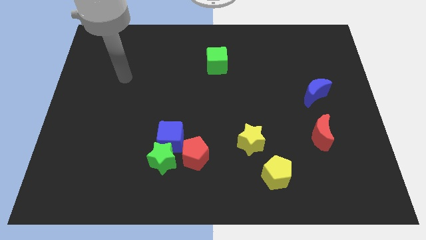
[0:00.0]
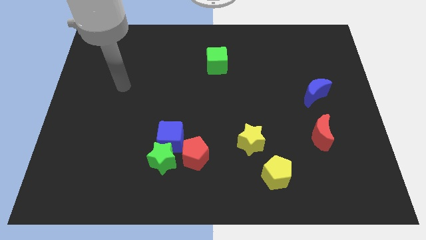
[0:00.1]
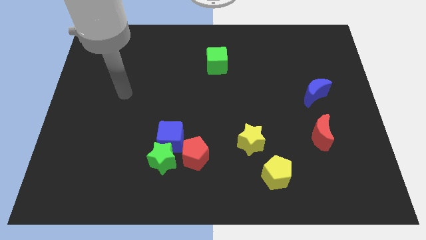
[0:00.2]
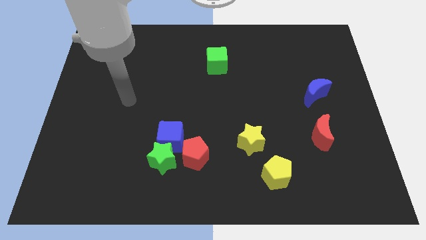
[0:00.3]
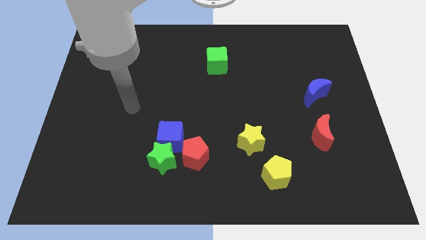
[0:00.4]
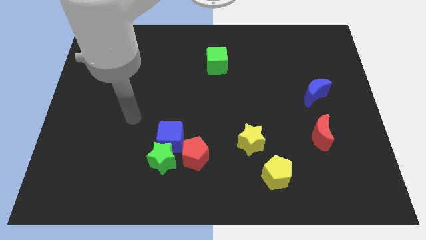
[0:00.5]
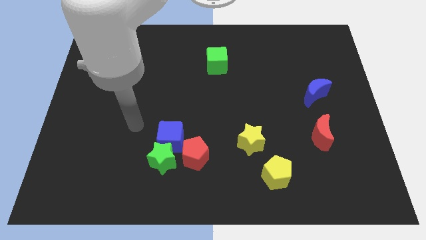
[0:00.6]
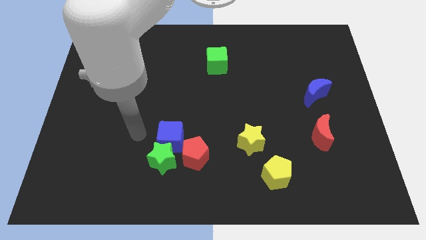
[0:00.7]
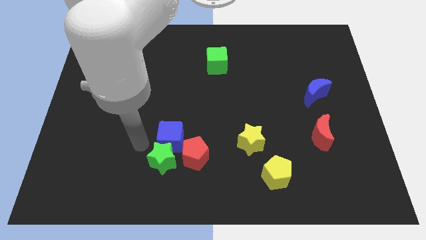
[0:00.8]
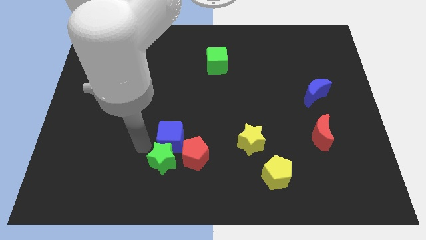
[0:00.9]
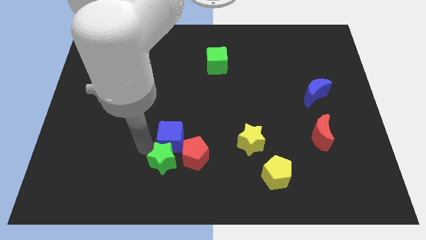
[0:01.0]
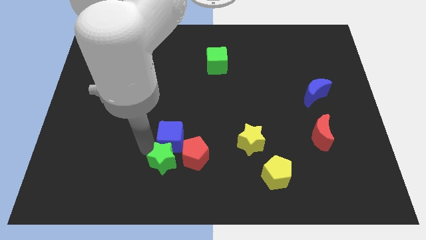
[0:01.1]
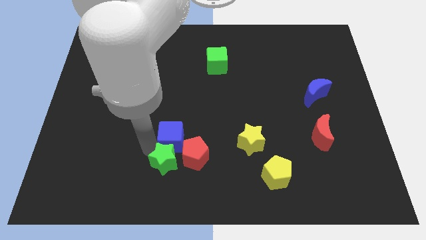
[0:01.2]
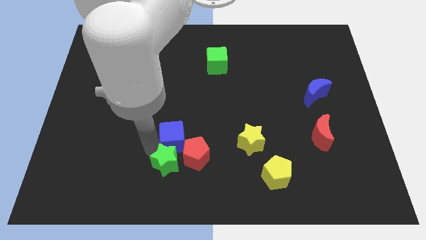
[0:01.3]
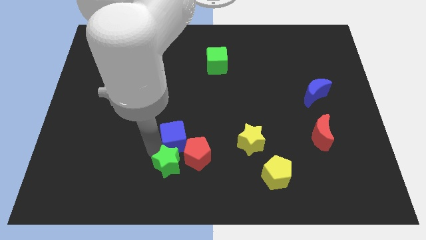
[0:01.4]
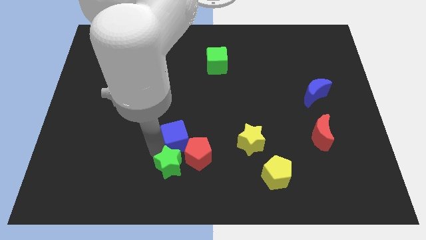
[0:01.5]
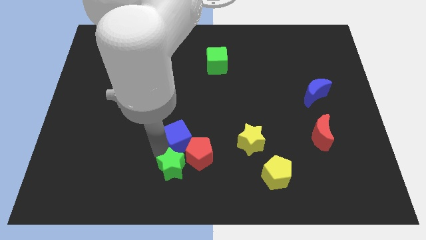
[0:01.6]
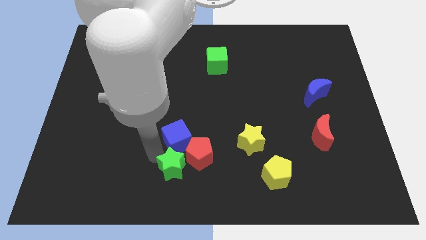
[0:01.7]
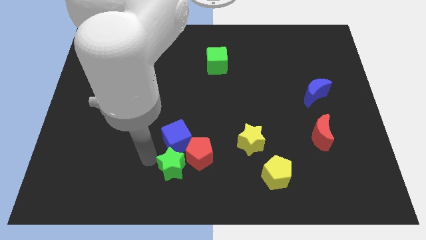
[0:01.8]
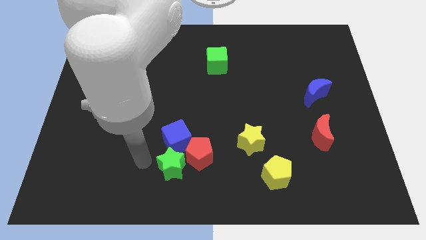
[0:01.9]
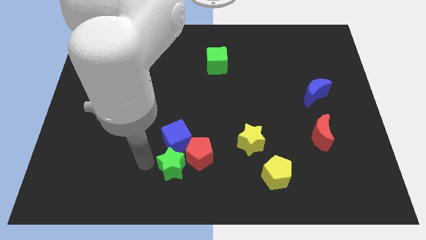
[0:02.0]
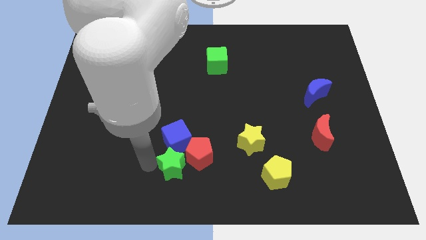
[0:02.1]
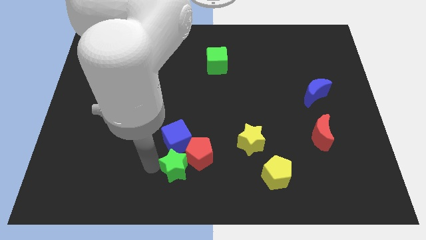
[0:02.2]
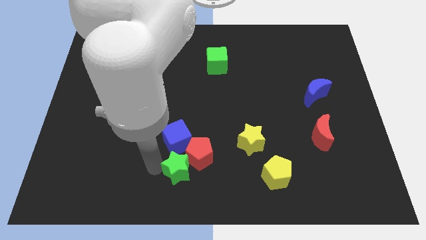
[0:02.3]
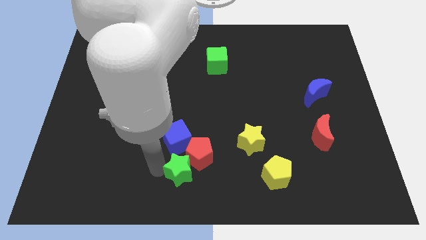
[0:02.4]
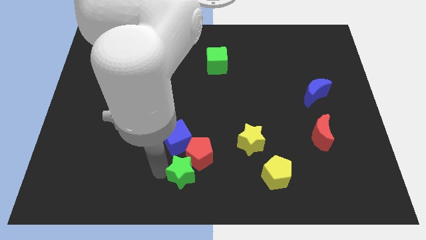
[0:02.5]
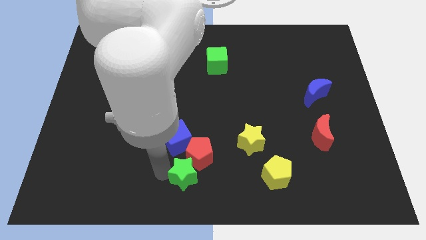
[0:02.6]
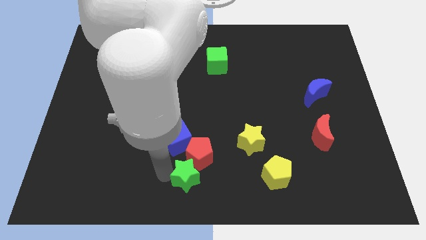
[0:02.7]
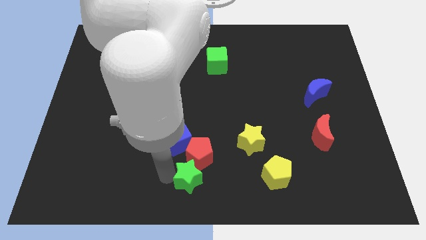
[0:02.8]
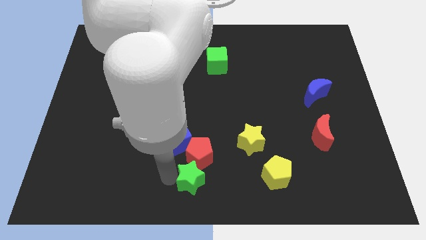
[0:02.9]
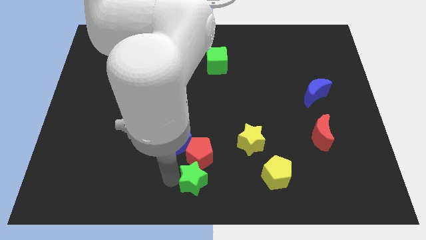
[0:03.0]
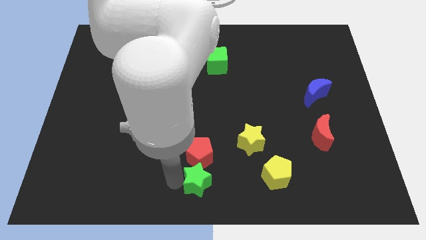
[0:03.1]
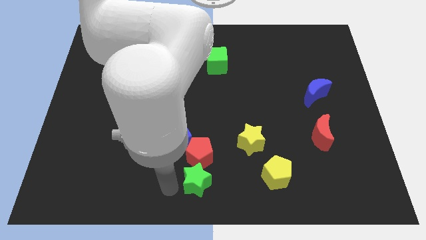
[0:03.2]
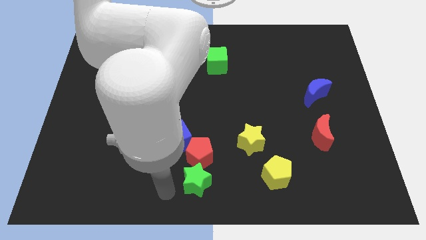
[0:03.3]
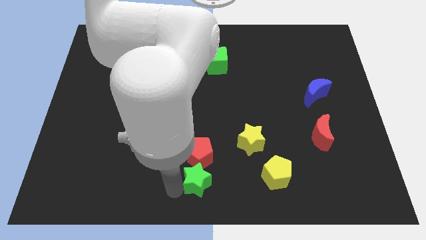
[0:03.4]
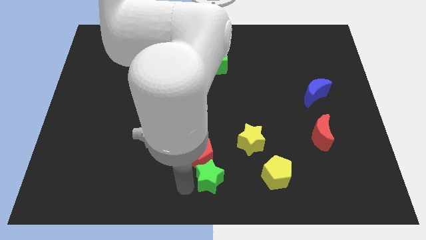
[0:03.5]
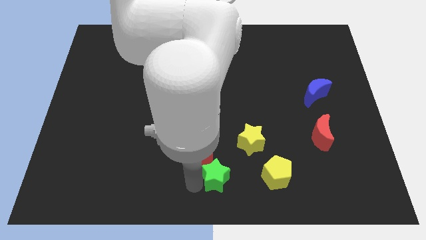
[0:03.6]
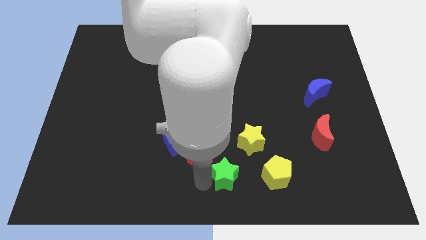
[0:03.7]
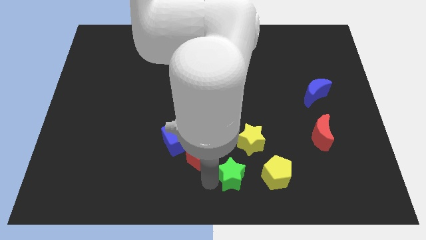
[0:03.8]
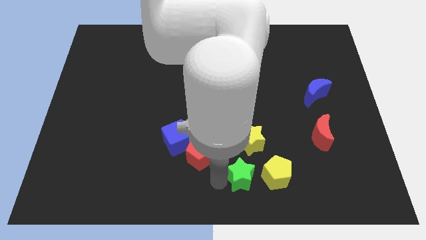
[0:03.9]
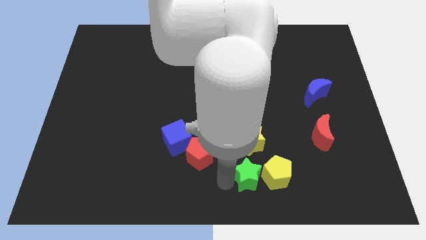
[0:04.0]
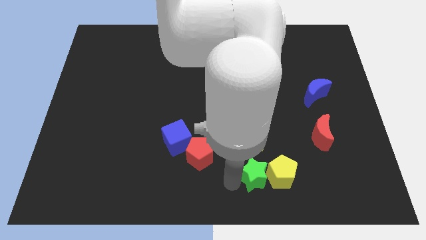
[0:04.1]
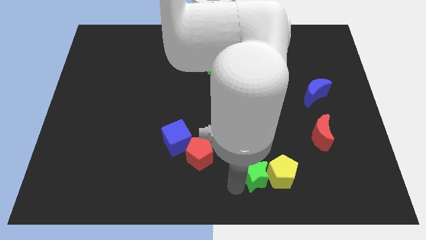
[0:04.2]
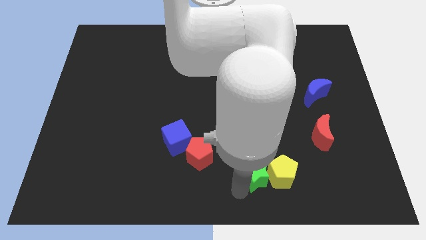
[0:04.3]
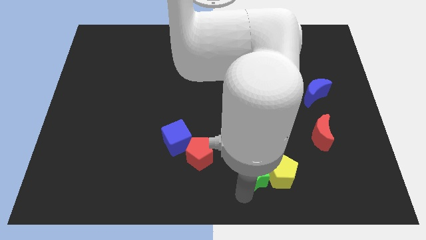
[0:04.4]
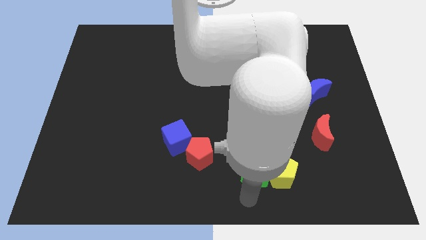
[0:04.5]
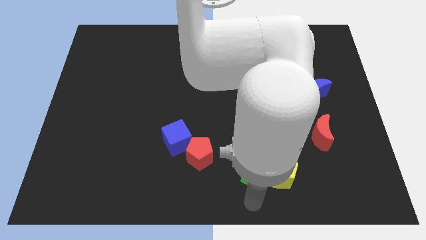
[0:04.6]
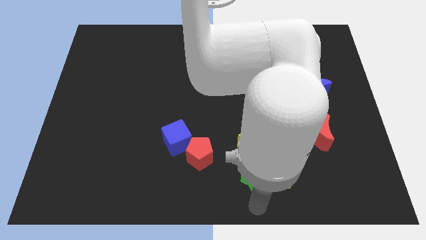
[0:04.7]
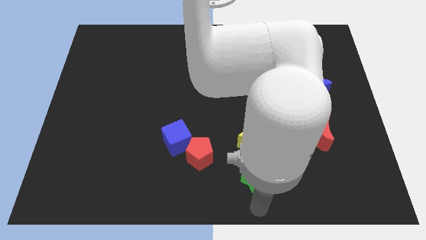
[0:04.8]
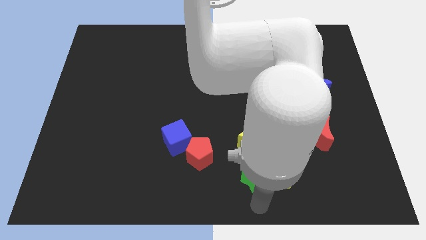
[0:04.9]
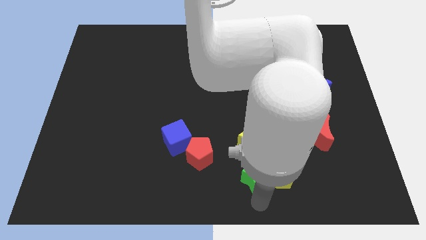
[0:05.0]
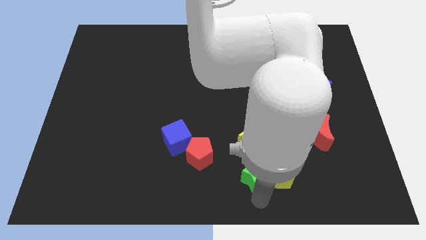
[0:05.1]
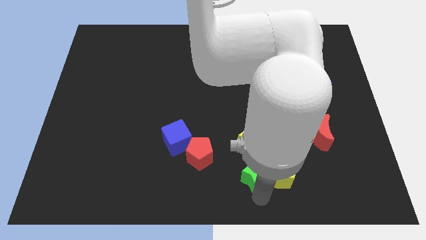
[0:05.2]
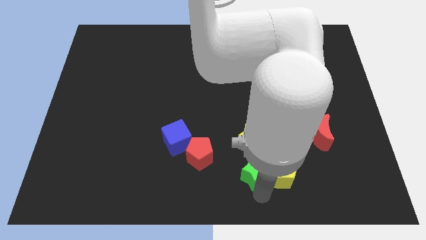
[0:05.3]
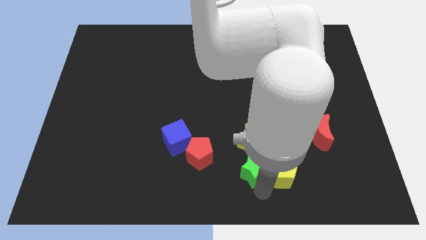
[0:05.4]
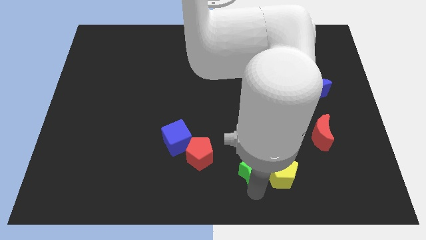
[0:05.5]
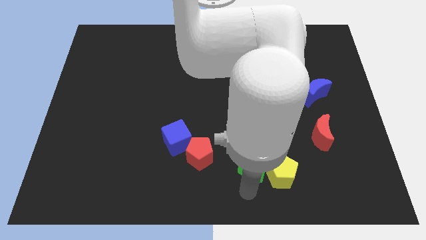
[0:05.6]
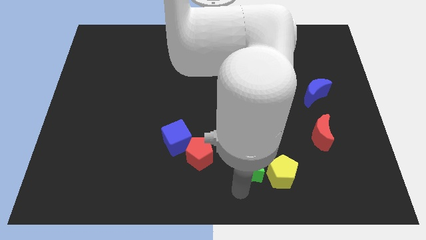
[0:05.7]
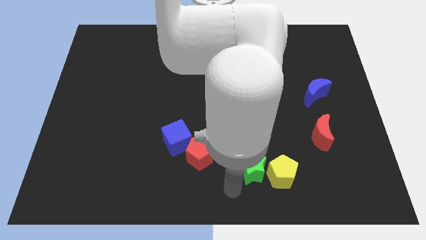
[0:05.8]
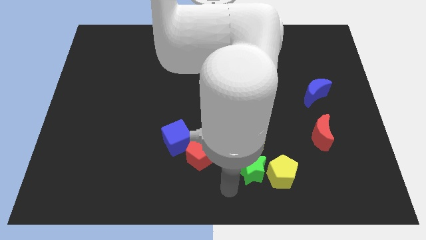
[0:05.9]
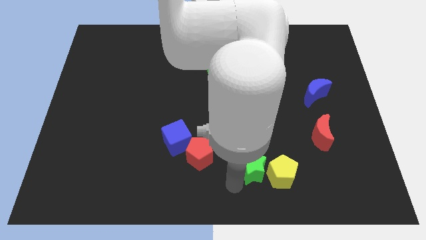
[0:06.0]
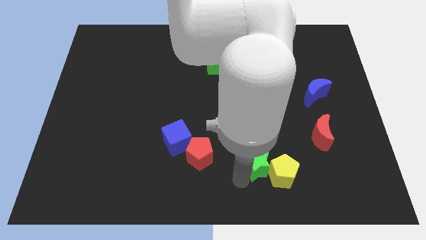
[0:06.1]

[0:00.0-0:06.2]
move the green star right

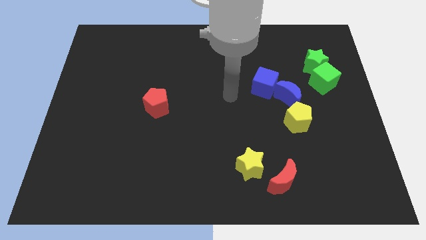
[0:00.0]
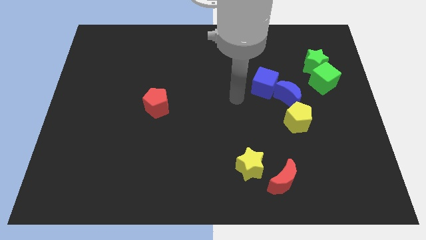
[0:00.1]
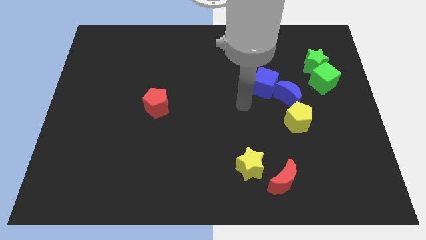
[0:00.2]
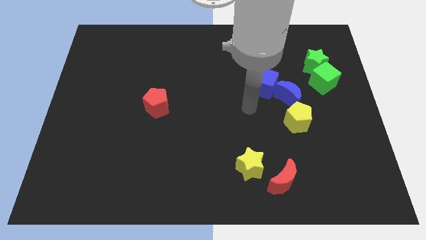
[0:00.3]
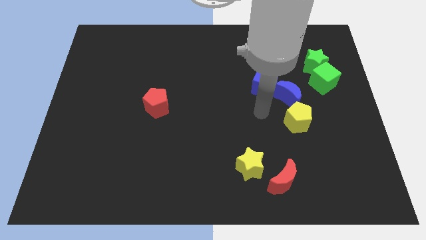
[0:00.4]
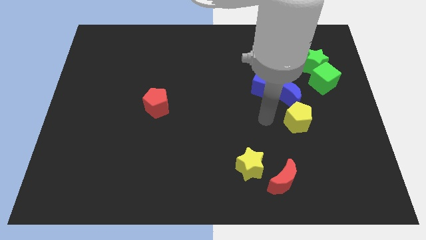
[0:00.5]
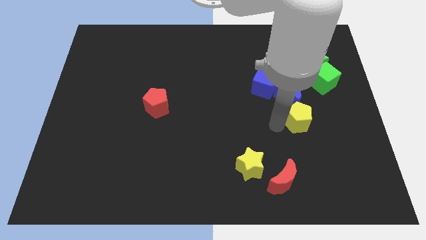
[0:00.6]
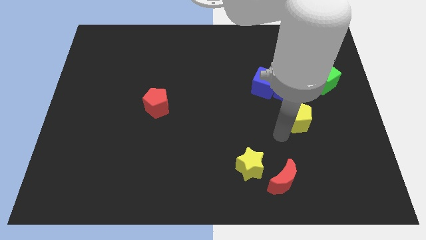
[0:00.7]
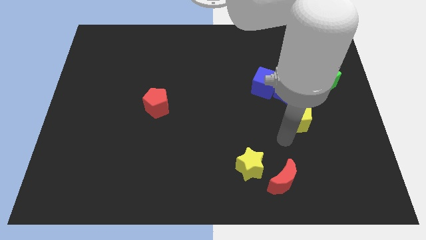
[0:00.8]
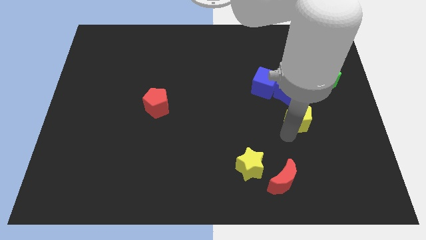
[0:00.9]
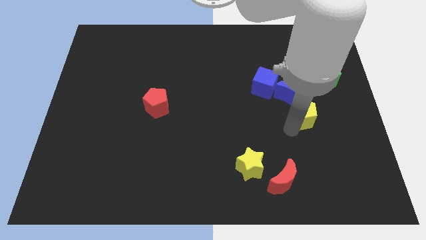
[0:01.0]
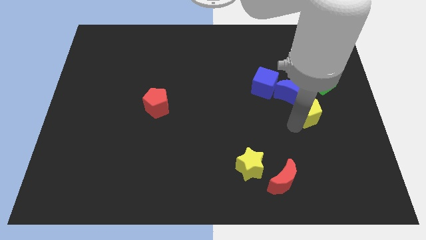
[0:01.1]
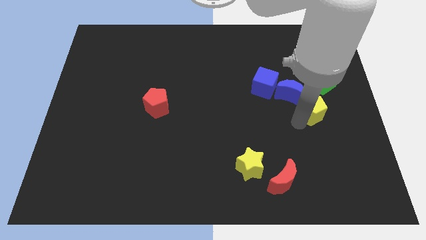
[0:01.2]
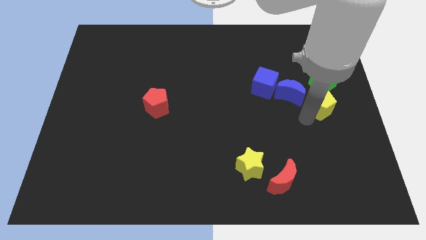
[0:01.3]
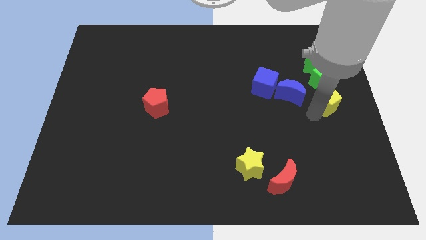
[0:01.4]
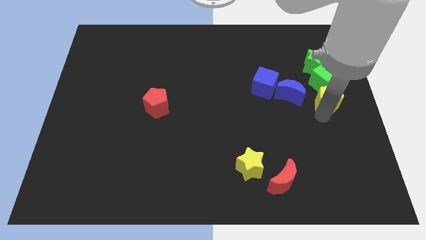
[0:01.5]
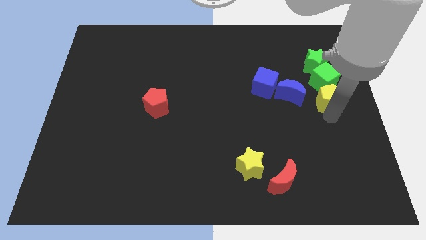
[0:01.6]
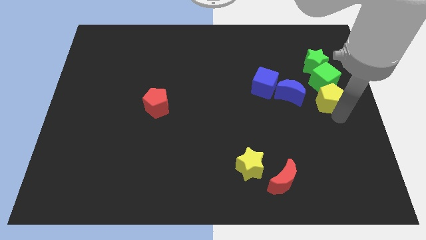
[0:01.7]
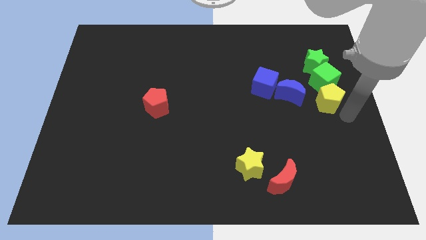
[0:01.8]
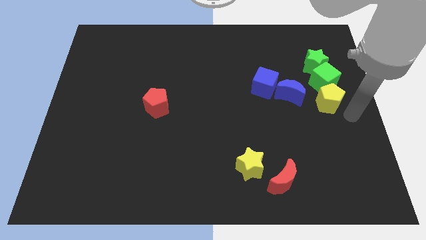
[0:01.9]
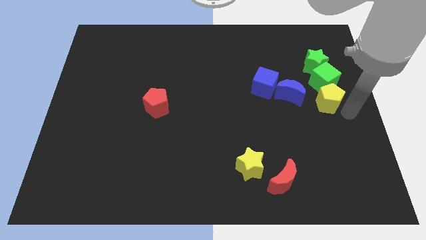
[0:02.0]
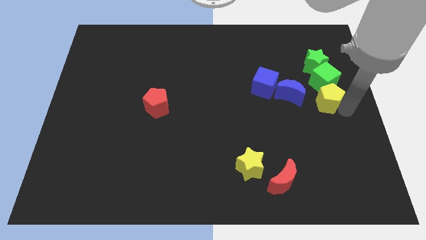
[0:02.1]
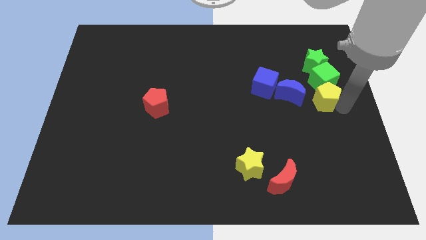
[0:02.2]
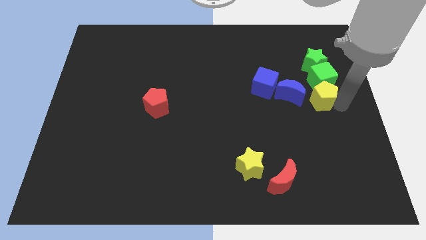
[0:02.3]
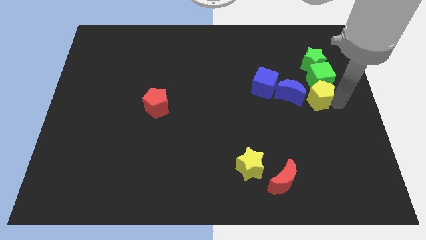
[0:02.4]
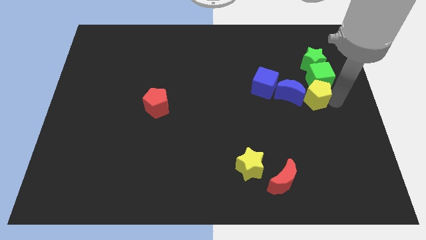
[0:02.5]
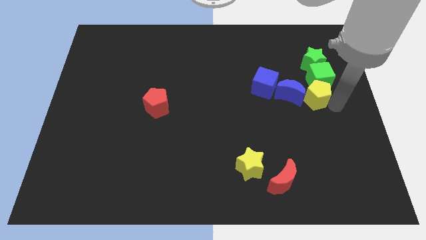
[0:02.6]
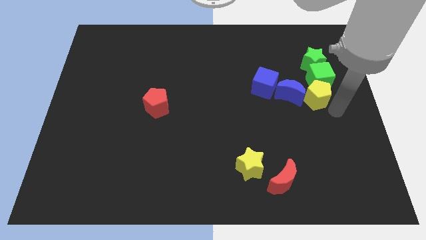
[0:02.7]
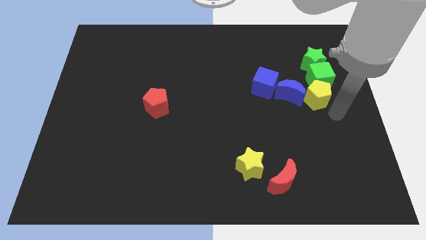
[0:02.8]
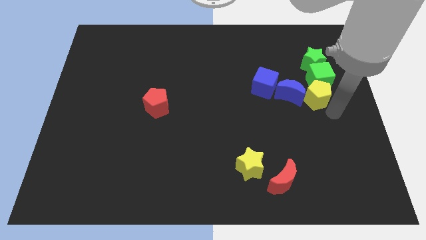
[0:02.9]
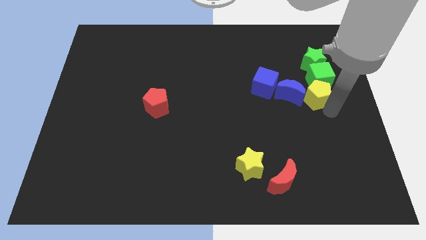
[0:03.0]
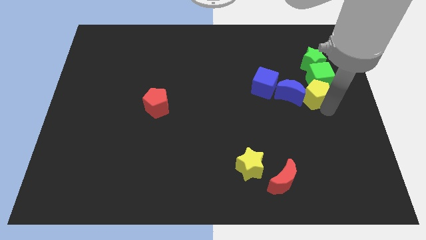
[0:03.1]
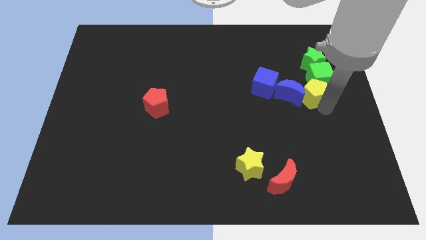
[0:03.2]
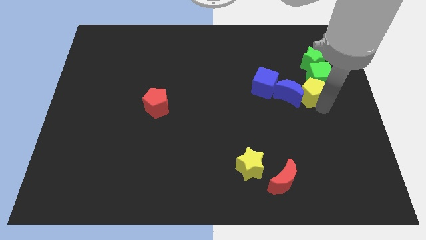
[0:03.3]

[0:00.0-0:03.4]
slide the yellow pentagon upwards a bit
